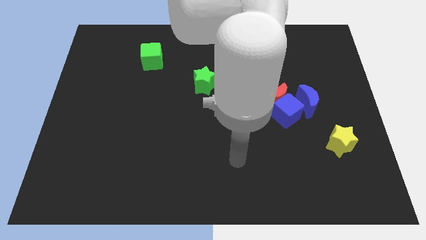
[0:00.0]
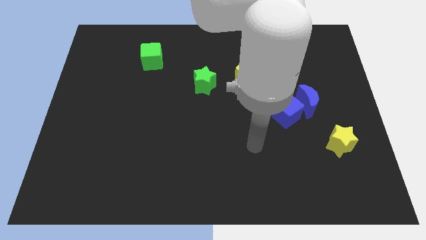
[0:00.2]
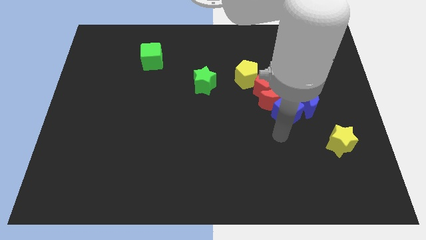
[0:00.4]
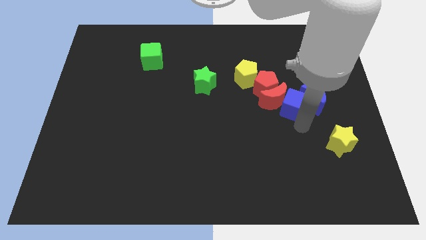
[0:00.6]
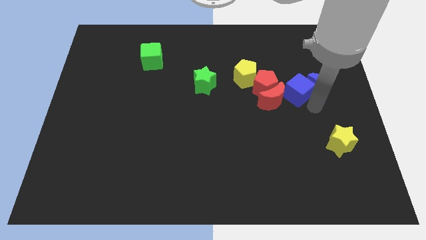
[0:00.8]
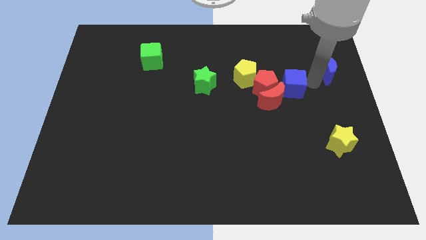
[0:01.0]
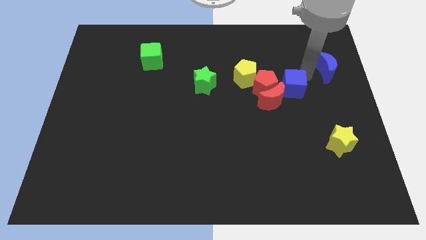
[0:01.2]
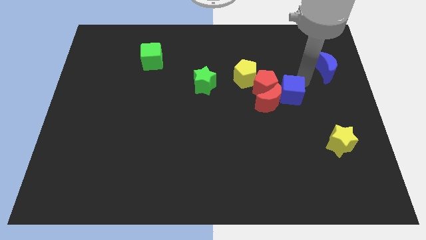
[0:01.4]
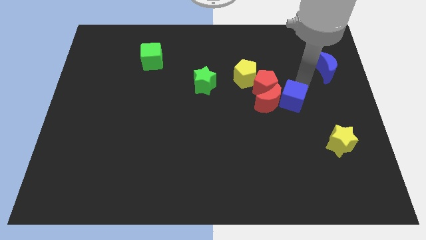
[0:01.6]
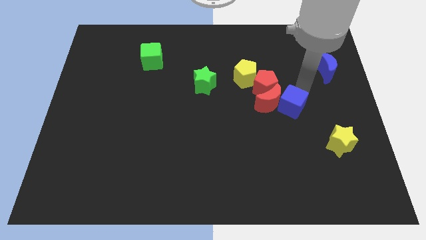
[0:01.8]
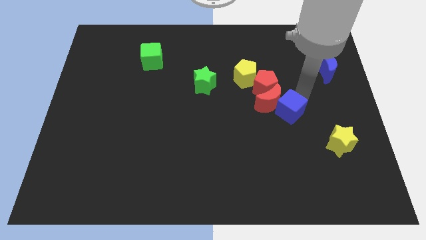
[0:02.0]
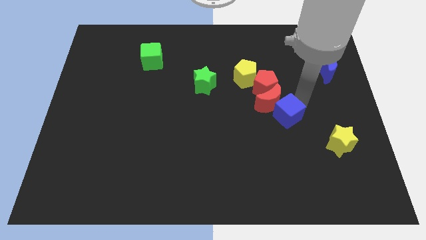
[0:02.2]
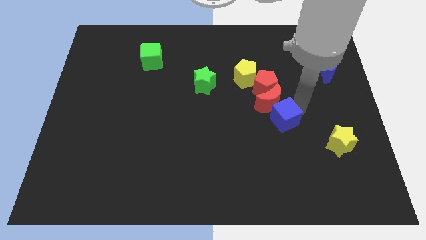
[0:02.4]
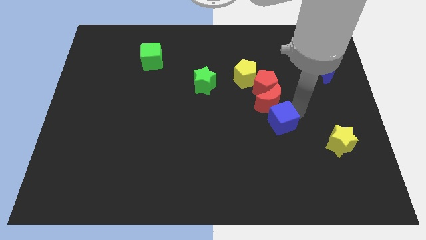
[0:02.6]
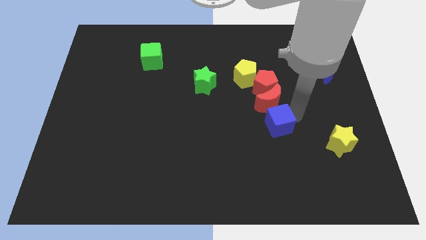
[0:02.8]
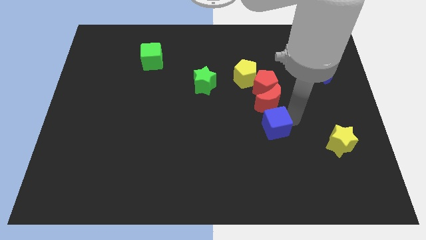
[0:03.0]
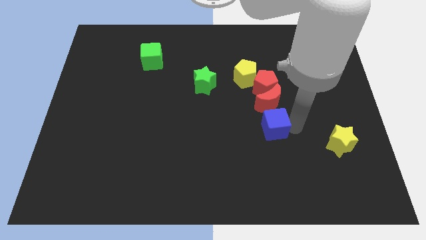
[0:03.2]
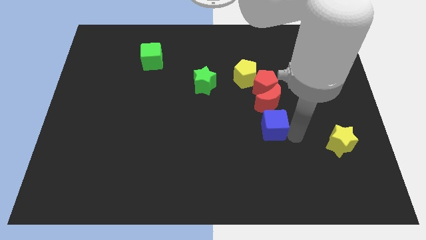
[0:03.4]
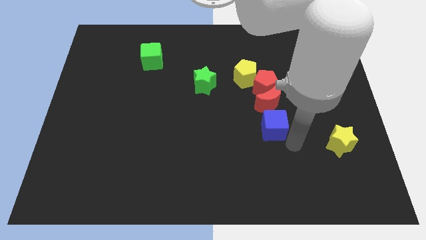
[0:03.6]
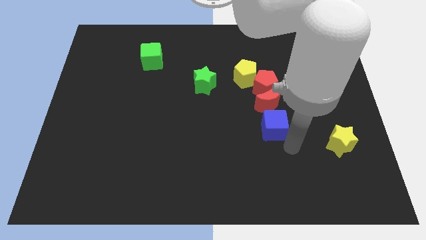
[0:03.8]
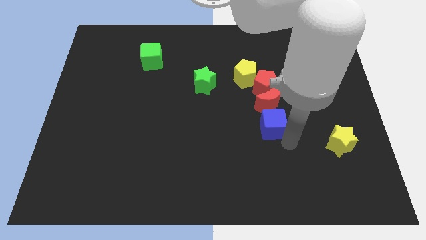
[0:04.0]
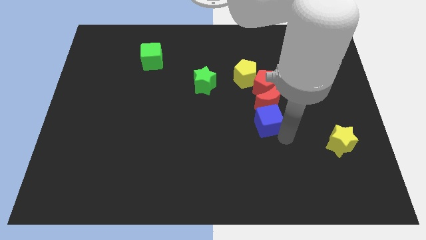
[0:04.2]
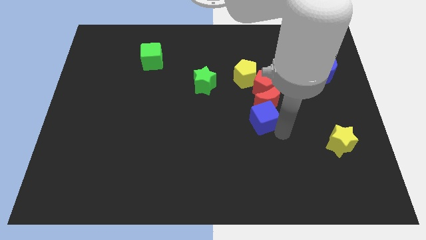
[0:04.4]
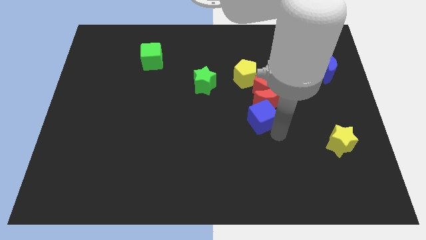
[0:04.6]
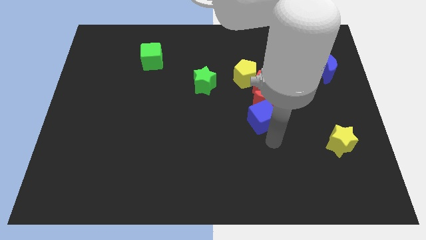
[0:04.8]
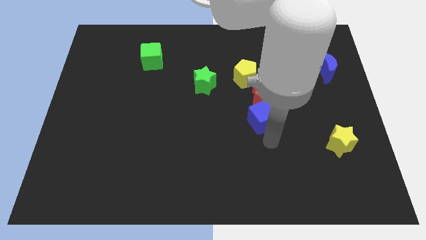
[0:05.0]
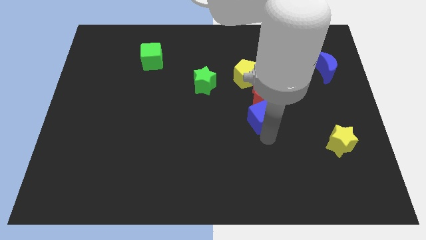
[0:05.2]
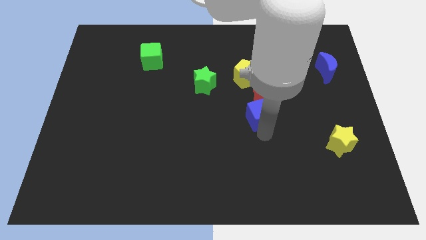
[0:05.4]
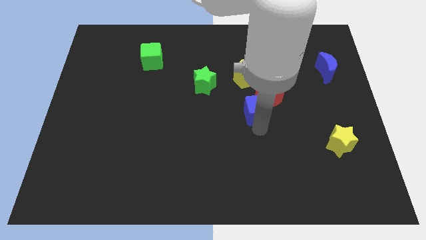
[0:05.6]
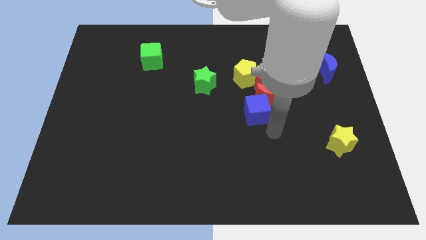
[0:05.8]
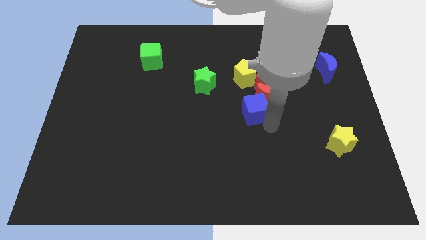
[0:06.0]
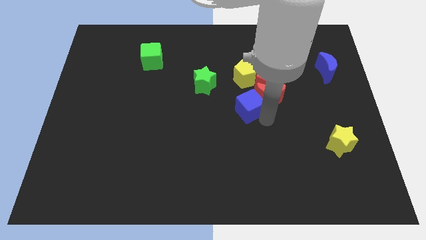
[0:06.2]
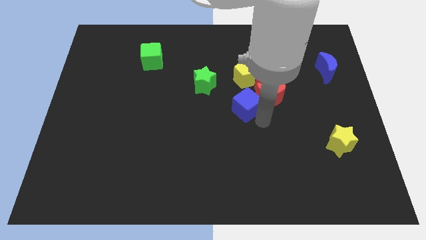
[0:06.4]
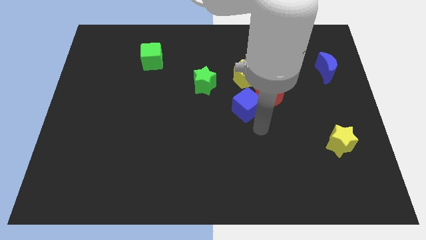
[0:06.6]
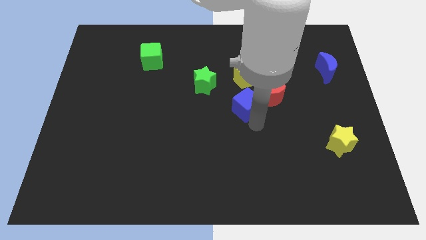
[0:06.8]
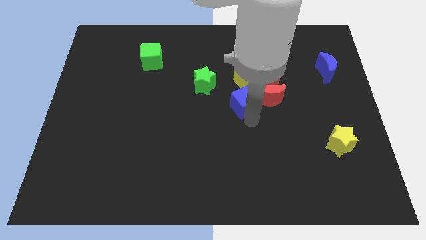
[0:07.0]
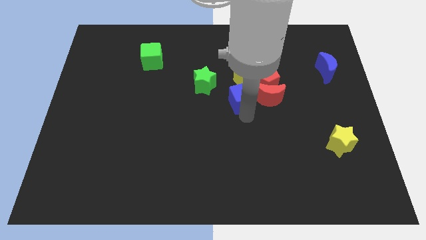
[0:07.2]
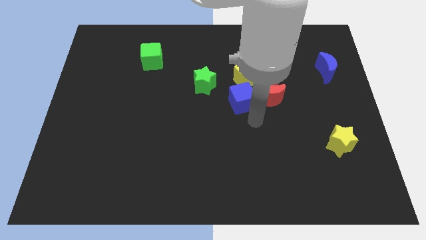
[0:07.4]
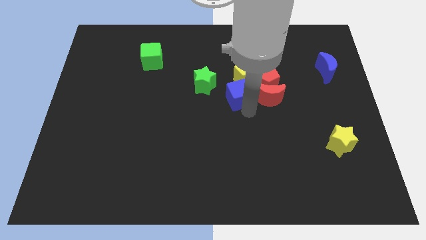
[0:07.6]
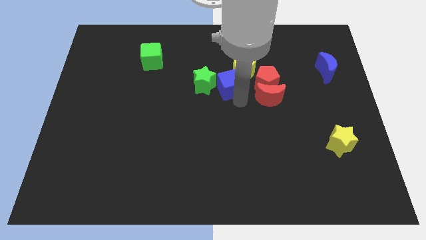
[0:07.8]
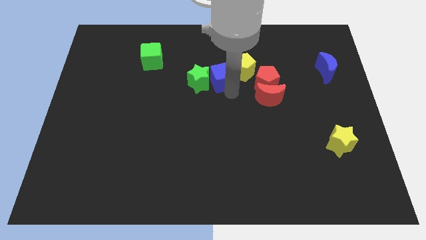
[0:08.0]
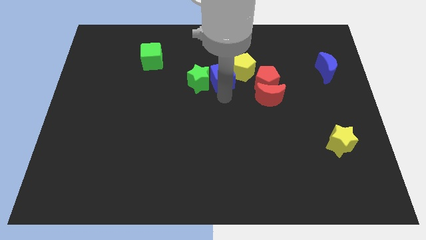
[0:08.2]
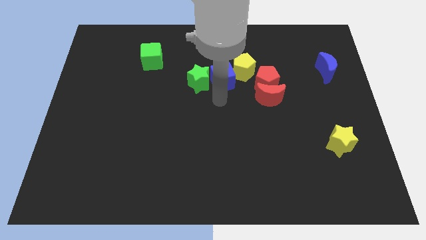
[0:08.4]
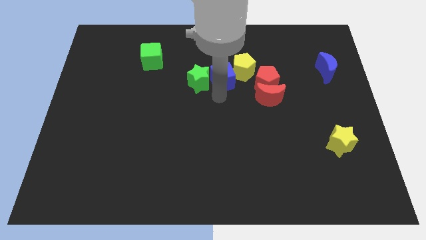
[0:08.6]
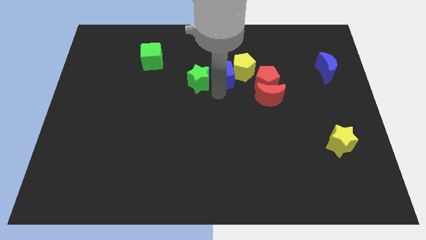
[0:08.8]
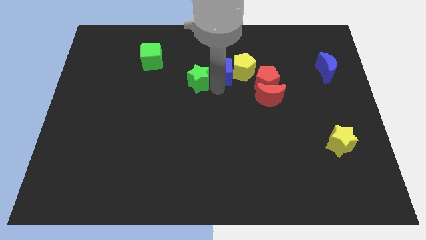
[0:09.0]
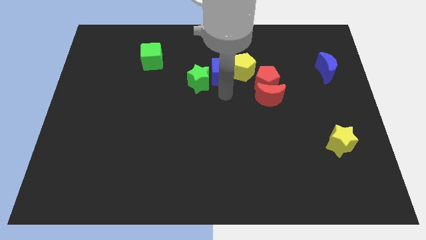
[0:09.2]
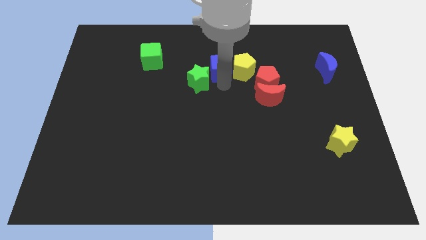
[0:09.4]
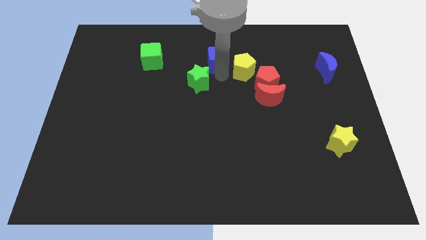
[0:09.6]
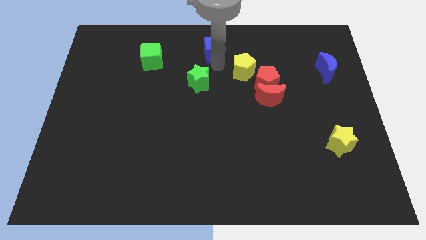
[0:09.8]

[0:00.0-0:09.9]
push the blue cube to the towards your base

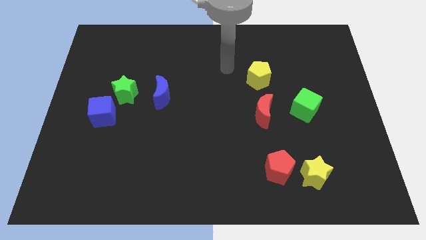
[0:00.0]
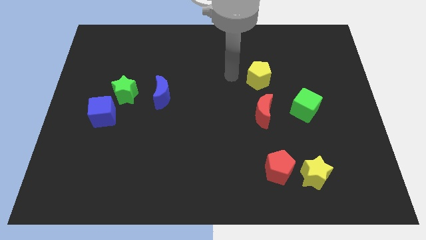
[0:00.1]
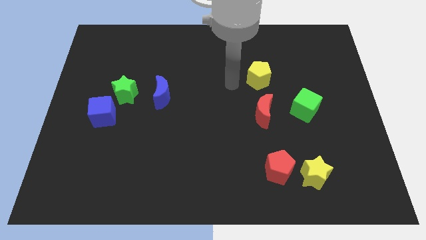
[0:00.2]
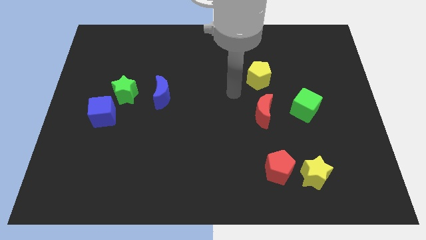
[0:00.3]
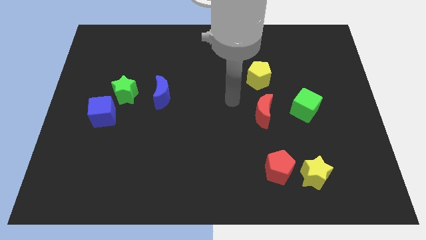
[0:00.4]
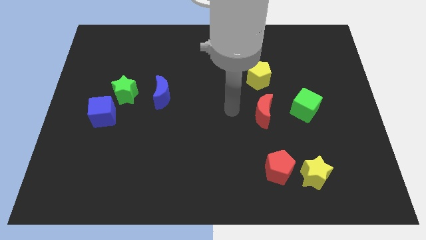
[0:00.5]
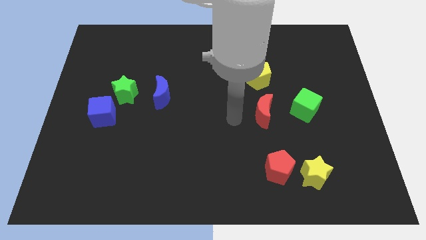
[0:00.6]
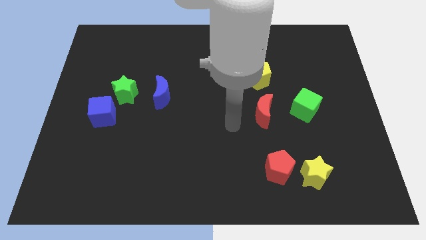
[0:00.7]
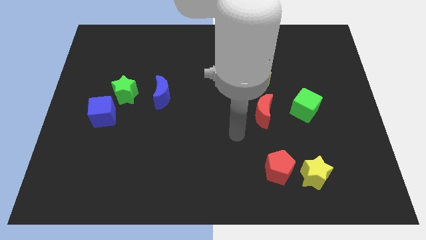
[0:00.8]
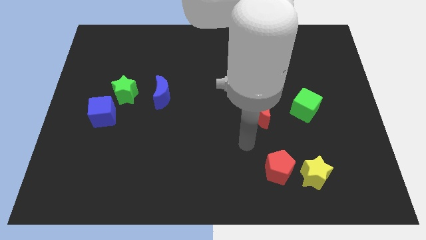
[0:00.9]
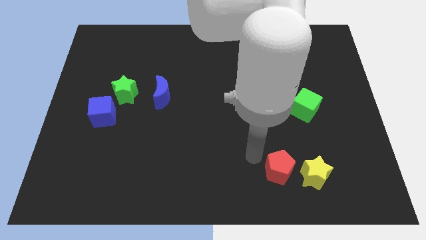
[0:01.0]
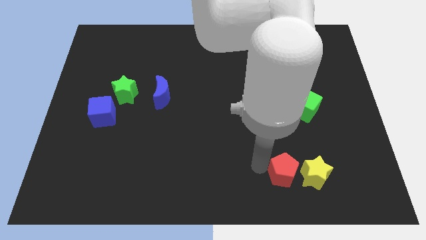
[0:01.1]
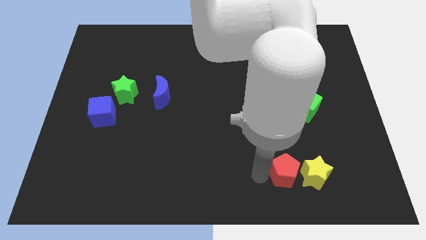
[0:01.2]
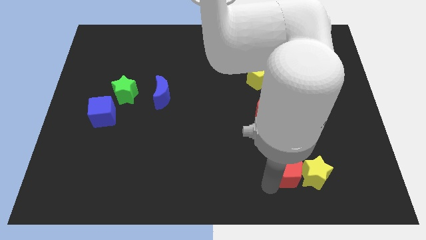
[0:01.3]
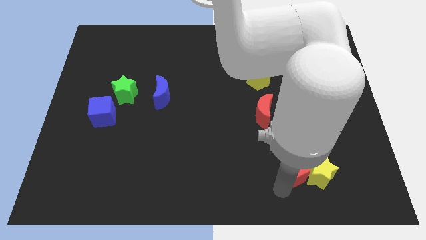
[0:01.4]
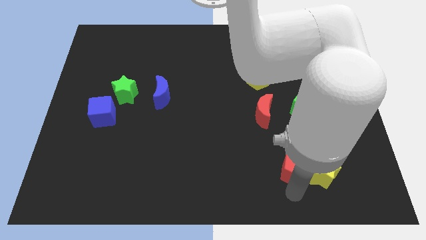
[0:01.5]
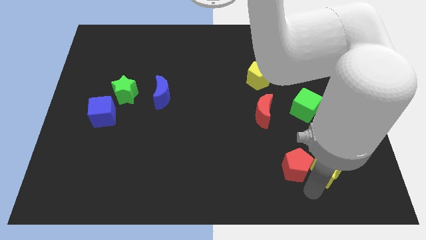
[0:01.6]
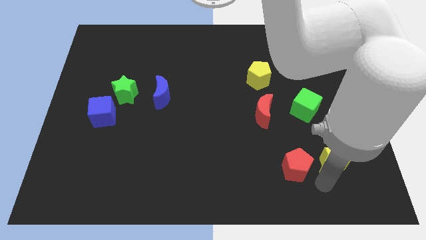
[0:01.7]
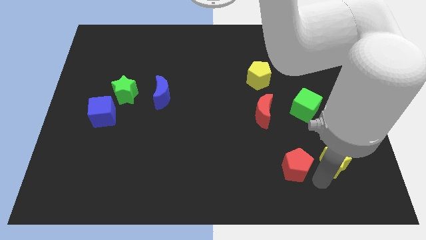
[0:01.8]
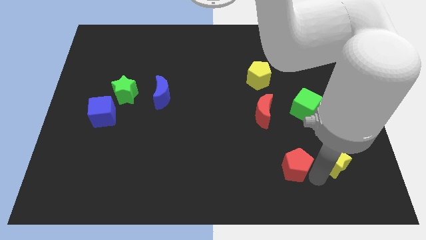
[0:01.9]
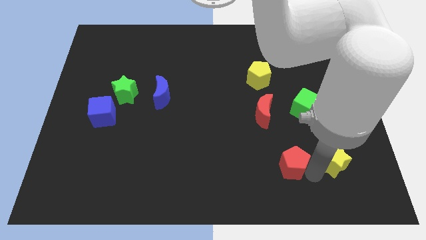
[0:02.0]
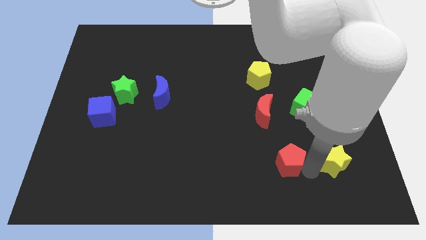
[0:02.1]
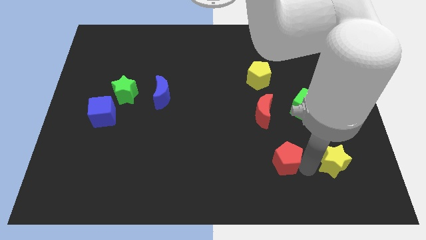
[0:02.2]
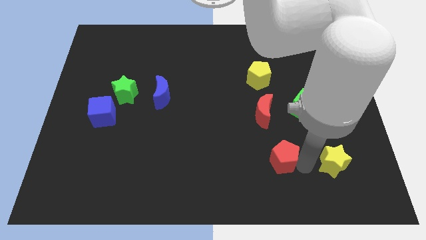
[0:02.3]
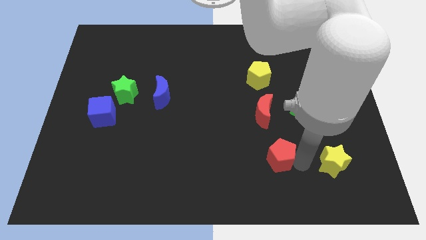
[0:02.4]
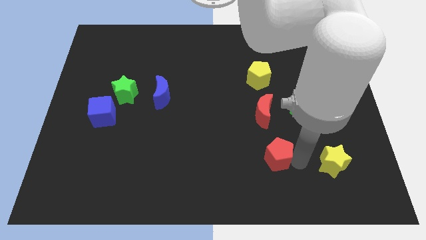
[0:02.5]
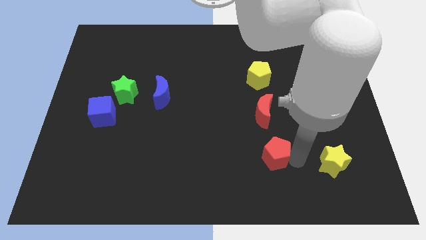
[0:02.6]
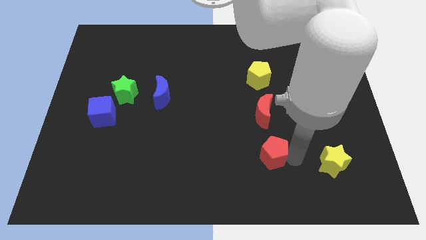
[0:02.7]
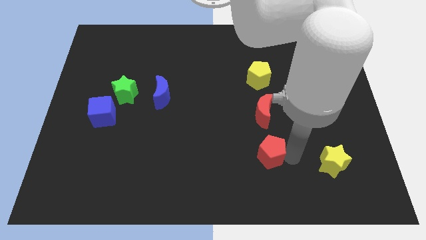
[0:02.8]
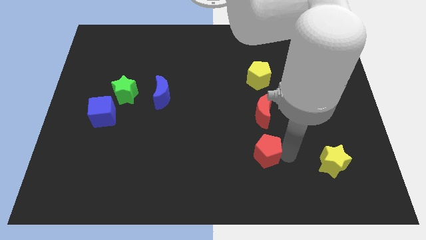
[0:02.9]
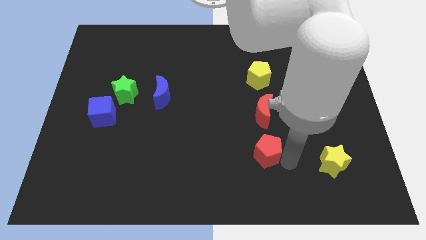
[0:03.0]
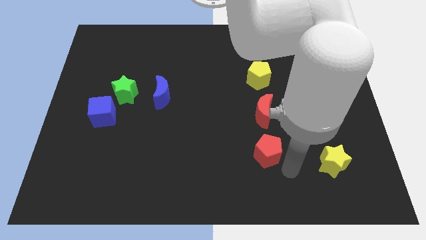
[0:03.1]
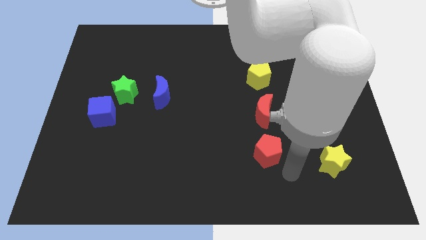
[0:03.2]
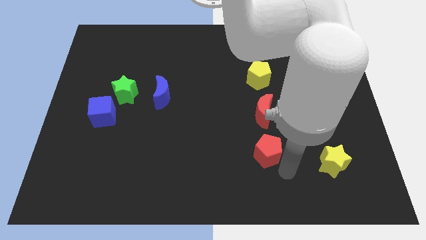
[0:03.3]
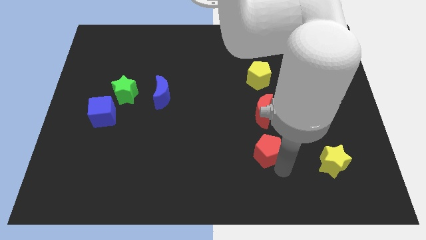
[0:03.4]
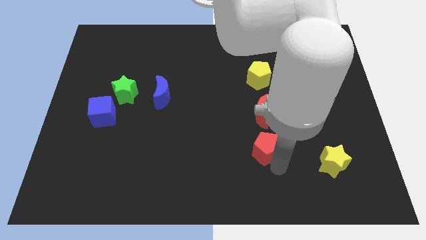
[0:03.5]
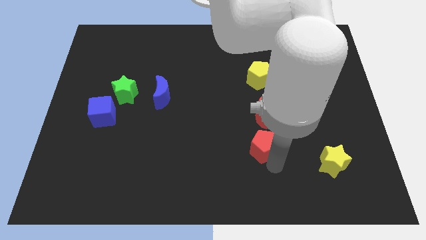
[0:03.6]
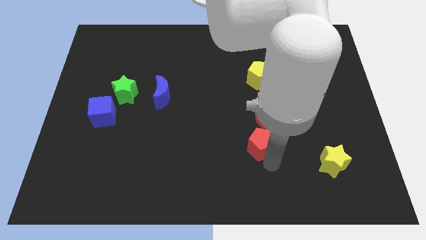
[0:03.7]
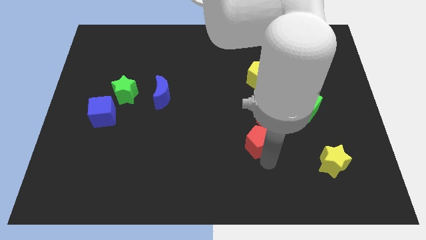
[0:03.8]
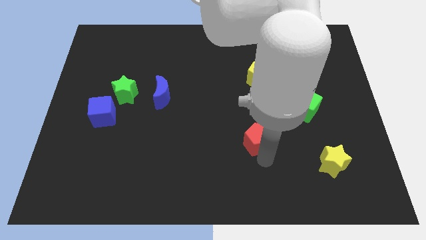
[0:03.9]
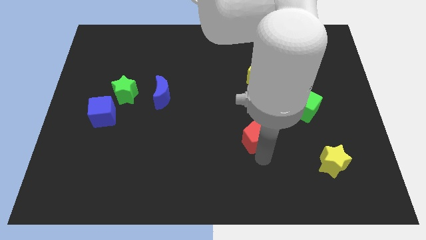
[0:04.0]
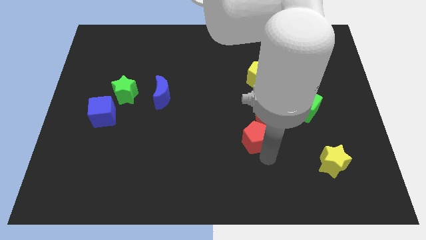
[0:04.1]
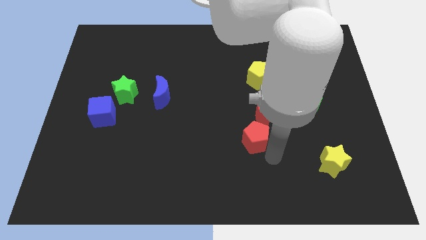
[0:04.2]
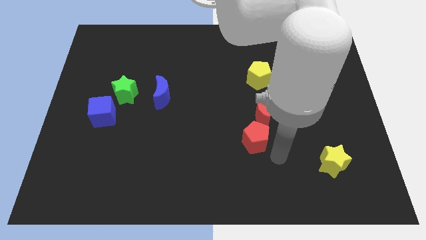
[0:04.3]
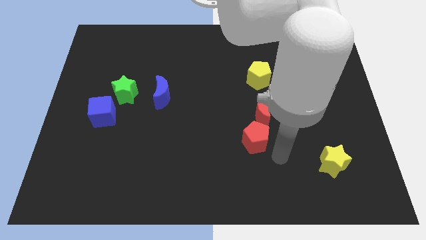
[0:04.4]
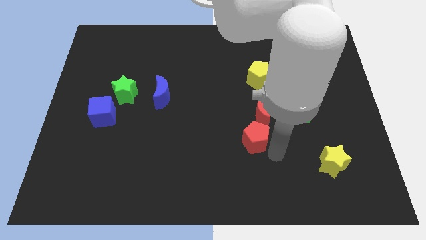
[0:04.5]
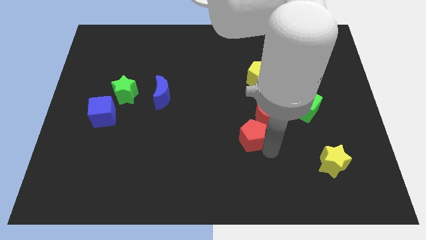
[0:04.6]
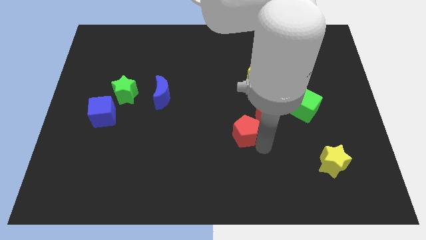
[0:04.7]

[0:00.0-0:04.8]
push the red pentagon to the center
